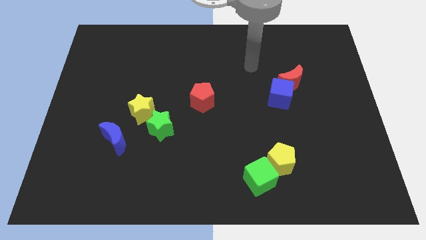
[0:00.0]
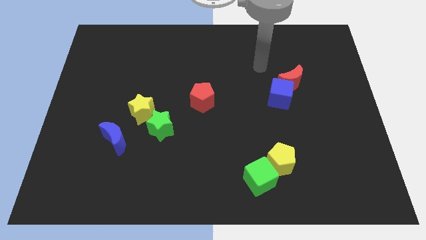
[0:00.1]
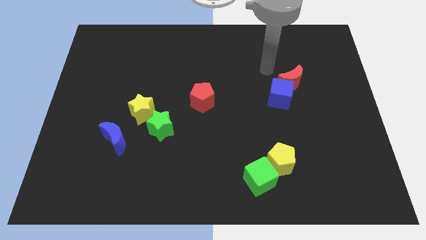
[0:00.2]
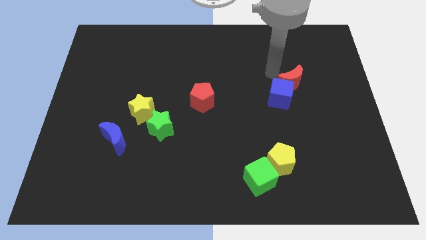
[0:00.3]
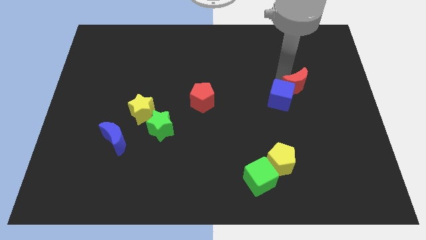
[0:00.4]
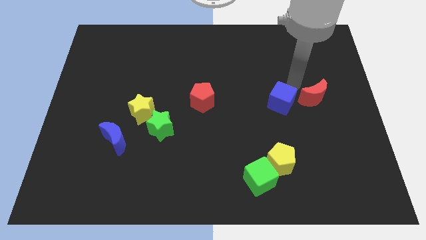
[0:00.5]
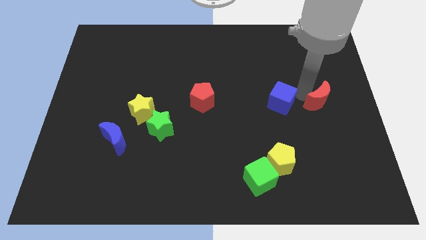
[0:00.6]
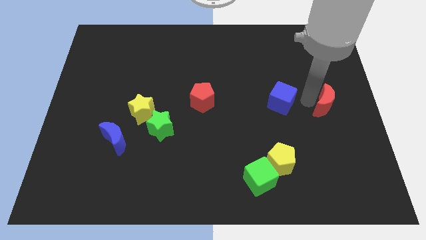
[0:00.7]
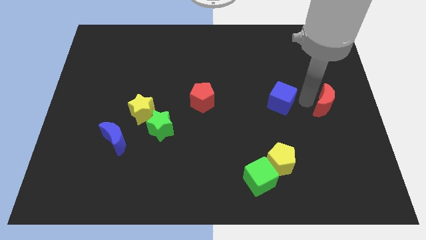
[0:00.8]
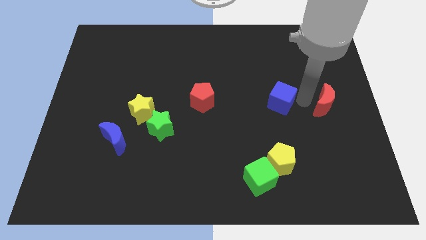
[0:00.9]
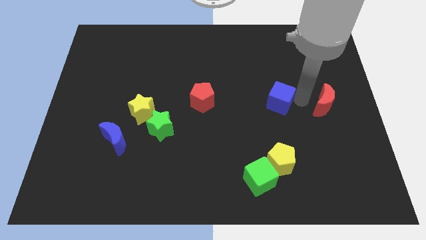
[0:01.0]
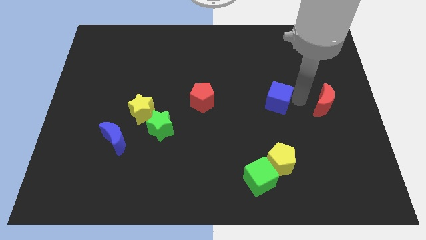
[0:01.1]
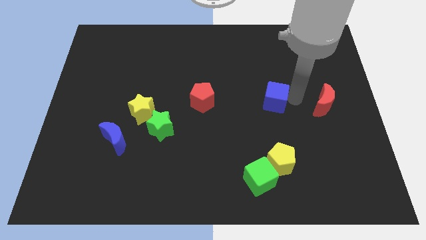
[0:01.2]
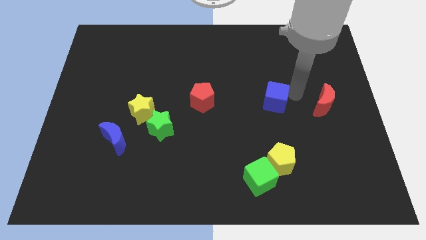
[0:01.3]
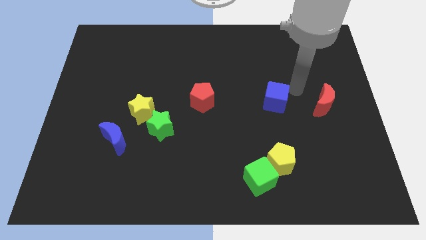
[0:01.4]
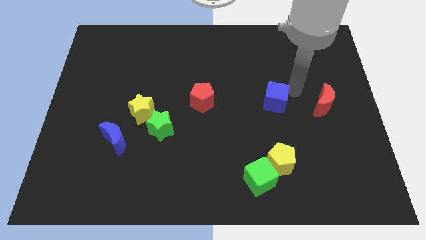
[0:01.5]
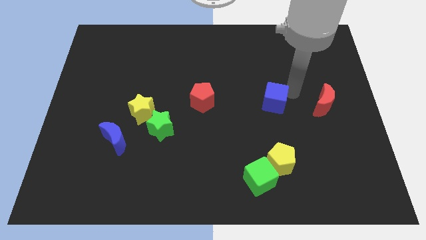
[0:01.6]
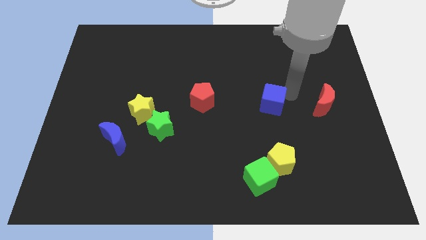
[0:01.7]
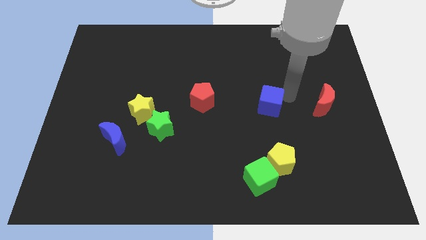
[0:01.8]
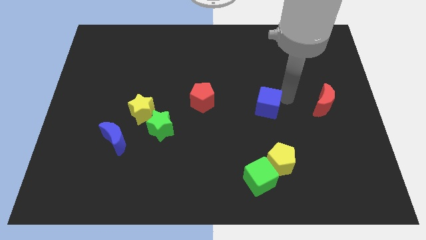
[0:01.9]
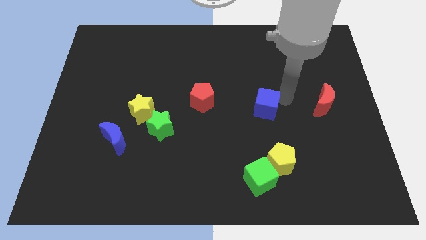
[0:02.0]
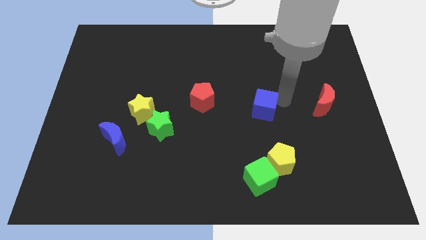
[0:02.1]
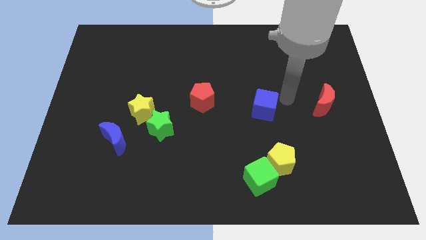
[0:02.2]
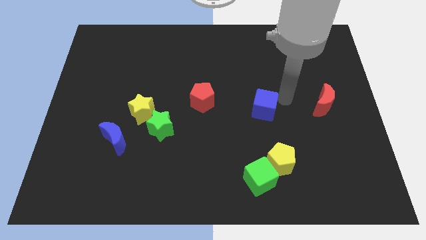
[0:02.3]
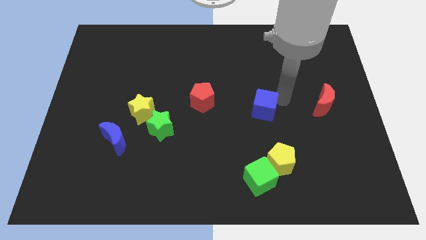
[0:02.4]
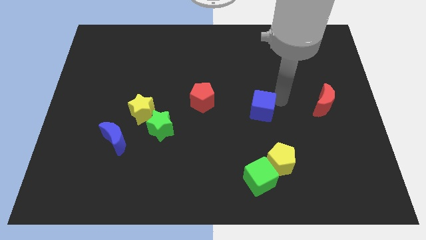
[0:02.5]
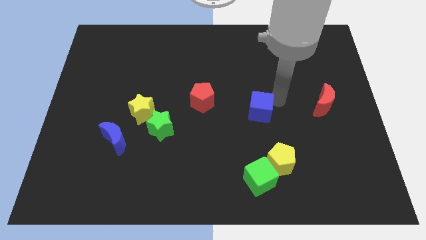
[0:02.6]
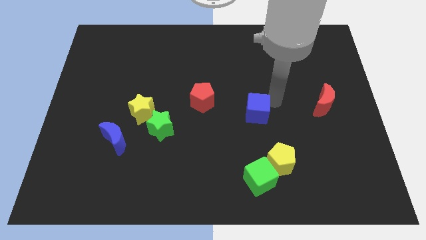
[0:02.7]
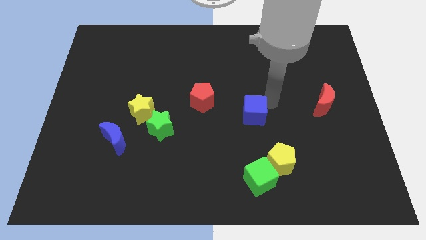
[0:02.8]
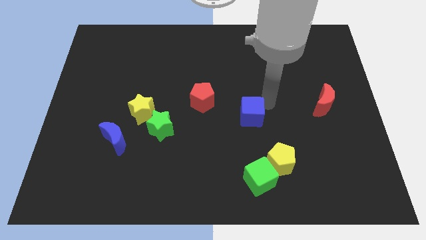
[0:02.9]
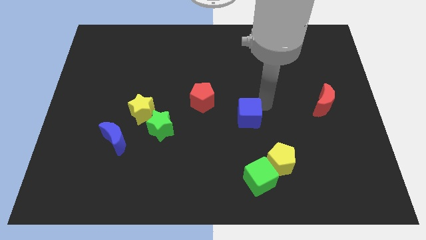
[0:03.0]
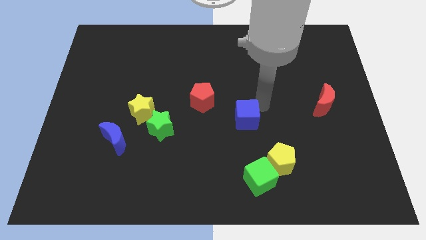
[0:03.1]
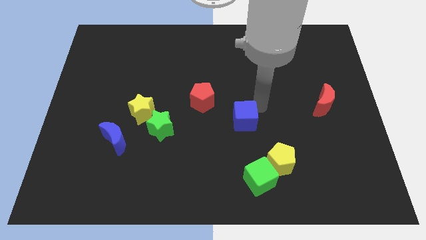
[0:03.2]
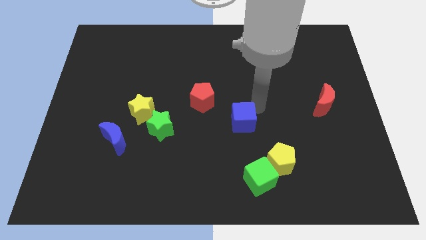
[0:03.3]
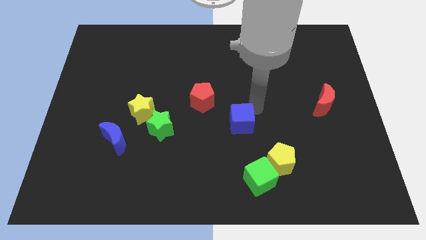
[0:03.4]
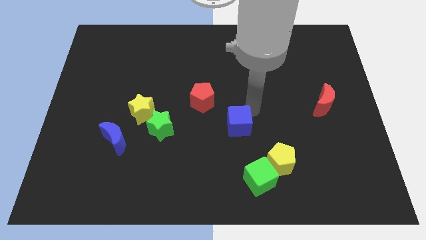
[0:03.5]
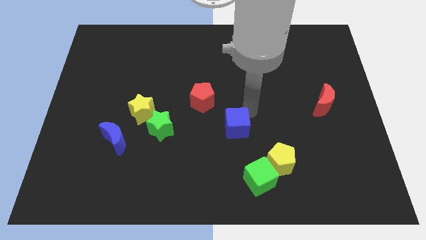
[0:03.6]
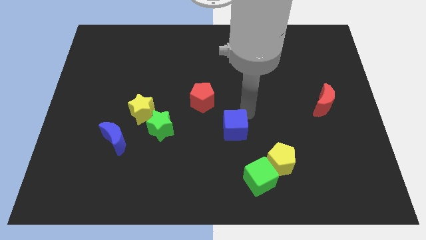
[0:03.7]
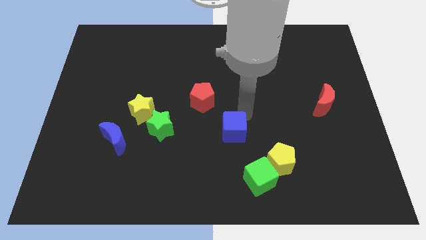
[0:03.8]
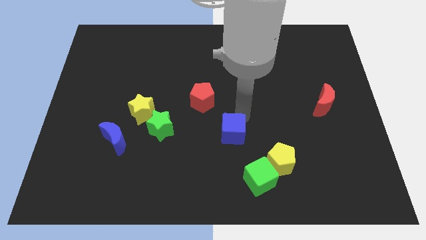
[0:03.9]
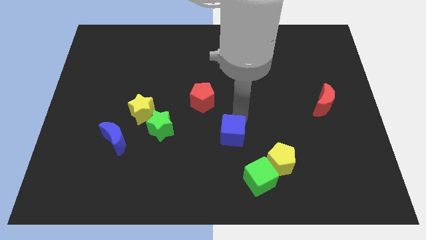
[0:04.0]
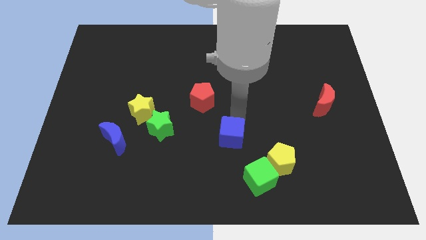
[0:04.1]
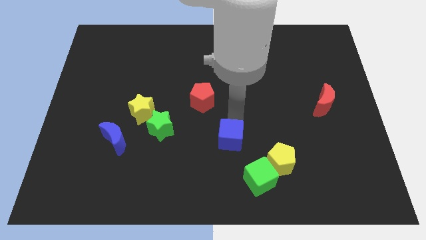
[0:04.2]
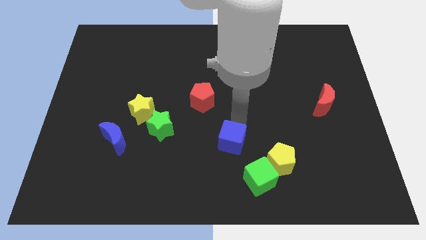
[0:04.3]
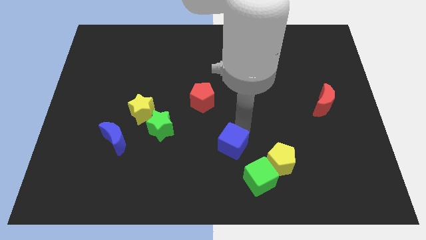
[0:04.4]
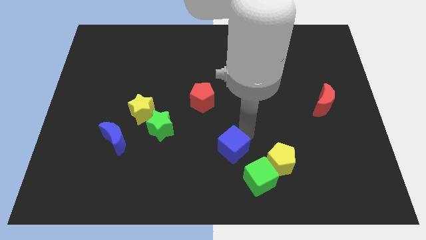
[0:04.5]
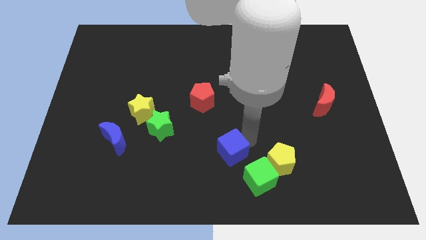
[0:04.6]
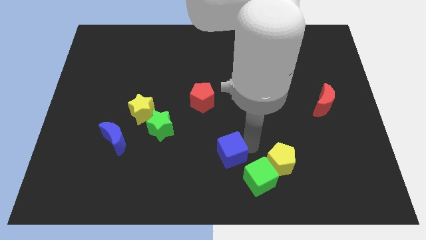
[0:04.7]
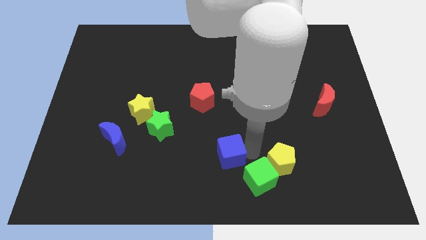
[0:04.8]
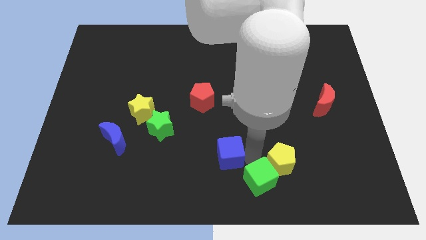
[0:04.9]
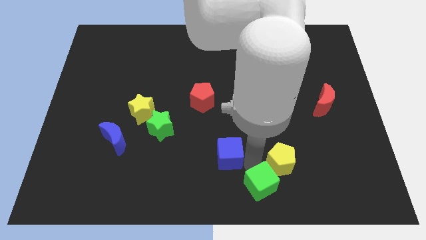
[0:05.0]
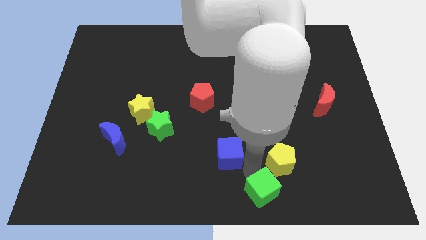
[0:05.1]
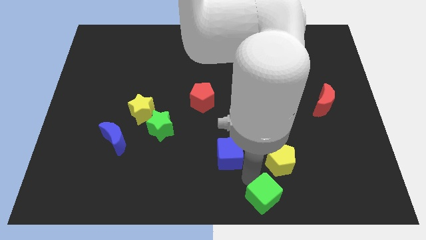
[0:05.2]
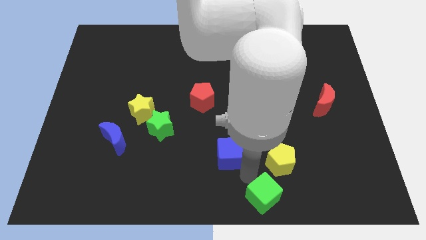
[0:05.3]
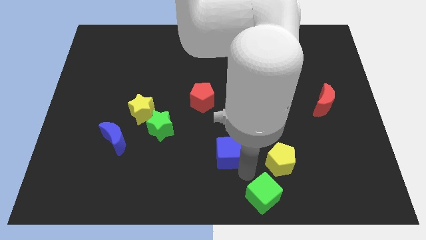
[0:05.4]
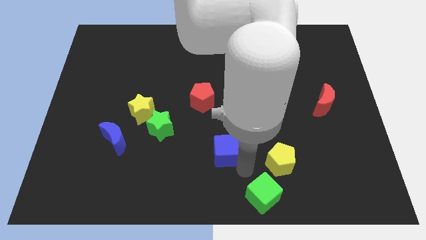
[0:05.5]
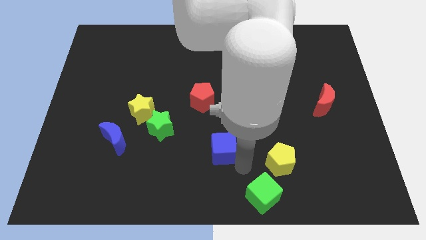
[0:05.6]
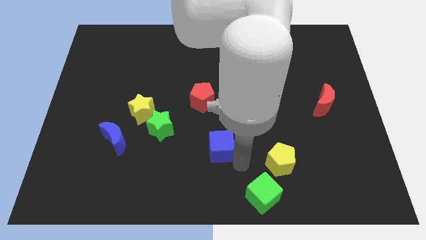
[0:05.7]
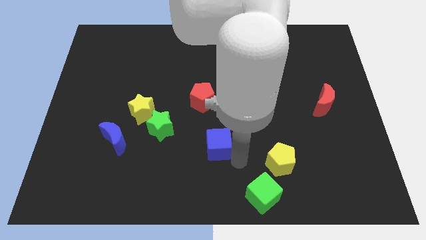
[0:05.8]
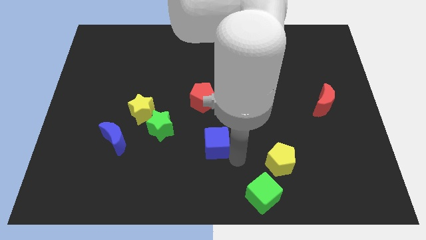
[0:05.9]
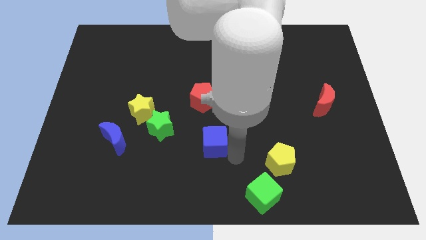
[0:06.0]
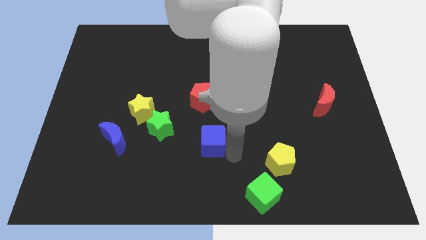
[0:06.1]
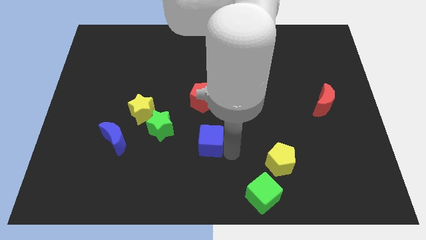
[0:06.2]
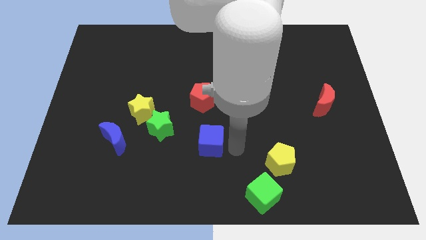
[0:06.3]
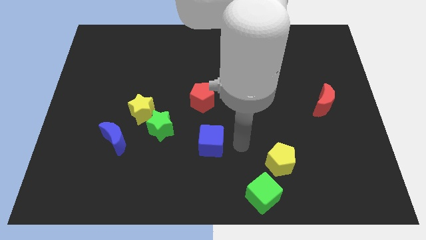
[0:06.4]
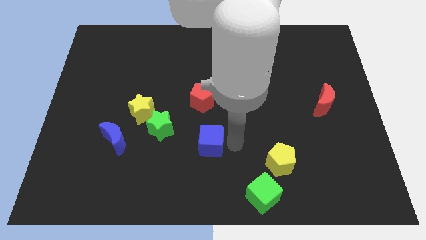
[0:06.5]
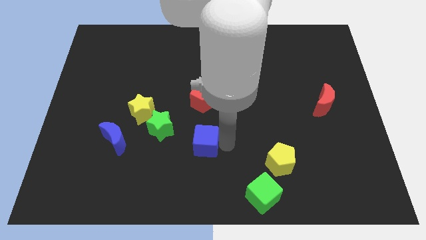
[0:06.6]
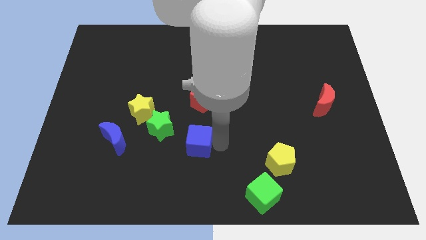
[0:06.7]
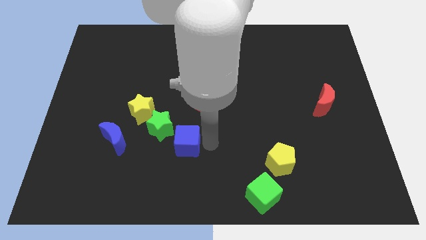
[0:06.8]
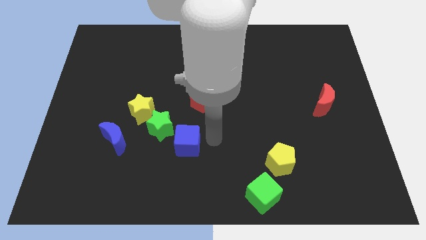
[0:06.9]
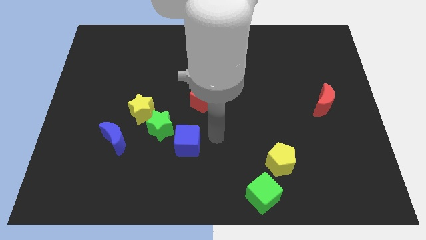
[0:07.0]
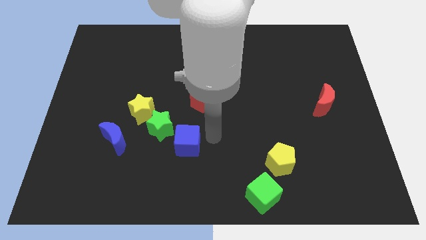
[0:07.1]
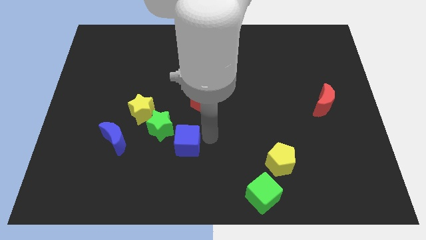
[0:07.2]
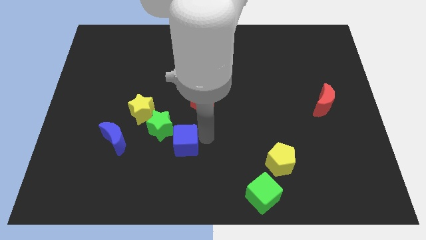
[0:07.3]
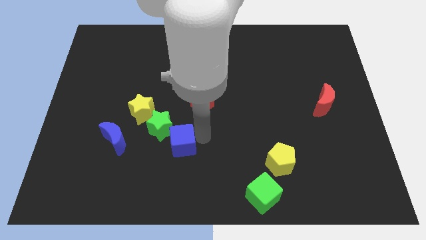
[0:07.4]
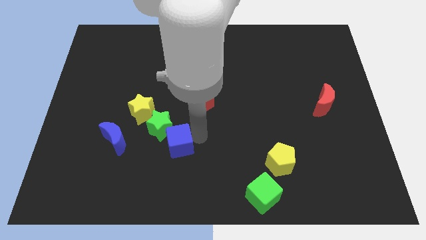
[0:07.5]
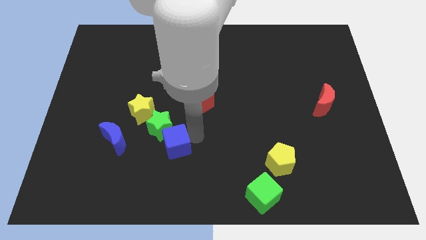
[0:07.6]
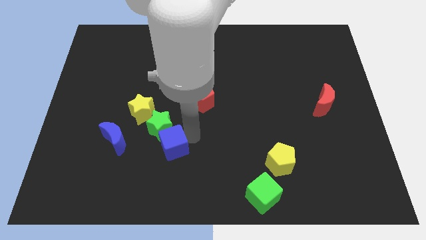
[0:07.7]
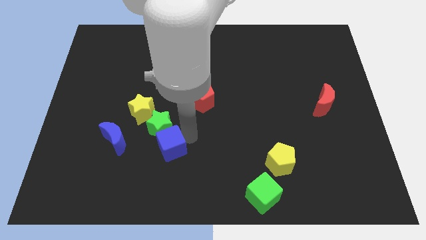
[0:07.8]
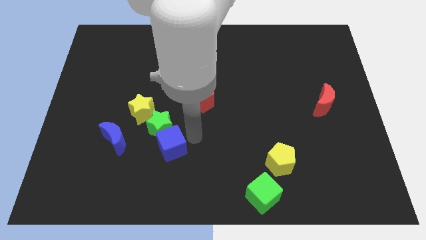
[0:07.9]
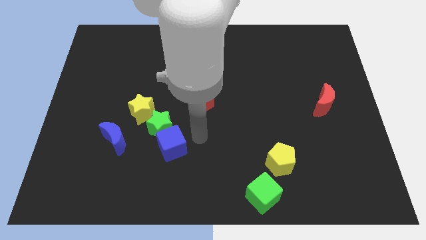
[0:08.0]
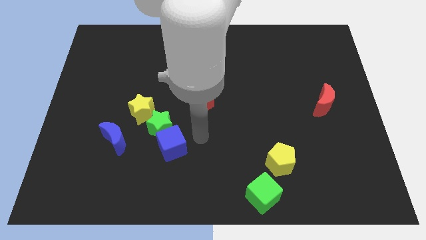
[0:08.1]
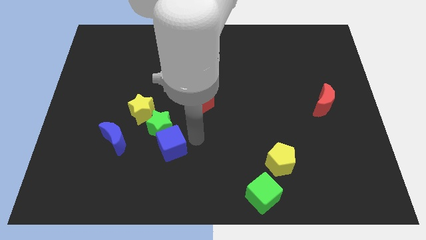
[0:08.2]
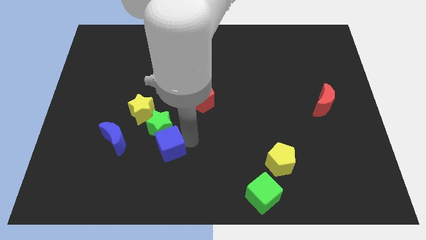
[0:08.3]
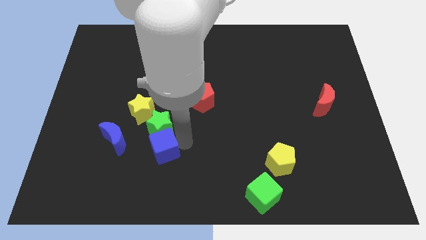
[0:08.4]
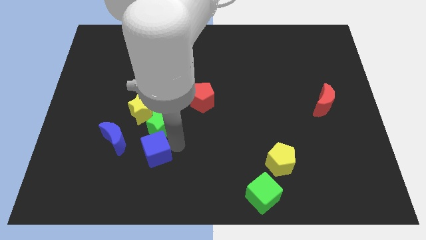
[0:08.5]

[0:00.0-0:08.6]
put the blue cube diagonally down and to the right of the blue moon
